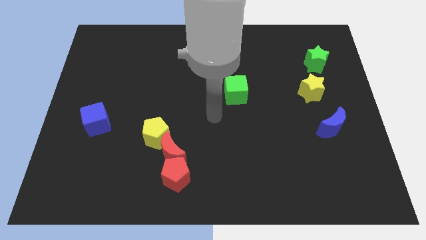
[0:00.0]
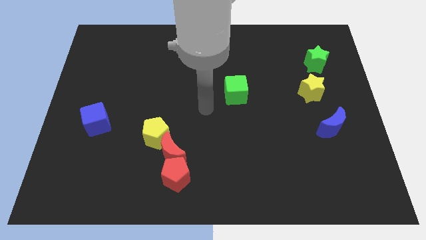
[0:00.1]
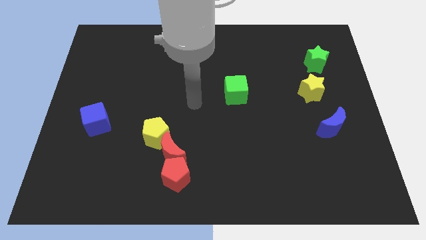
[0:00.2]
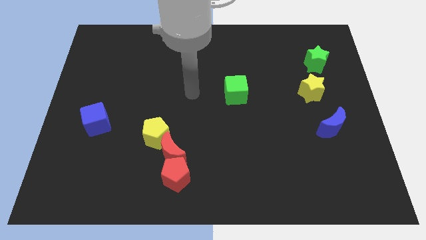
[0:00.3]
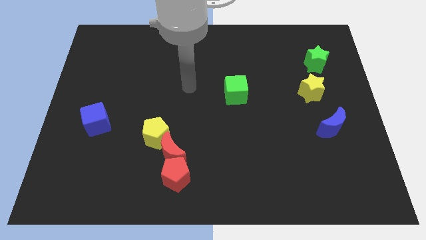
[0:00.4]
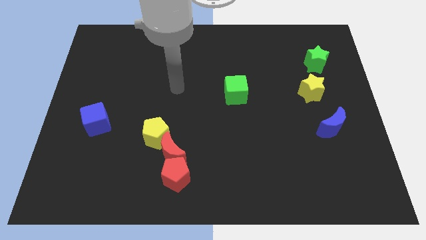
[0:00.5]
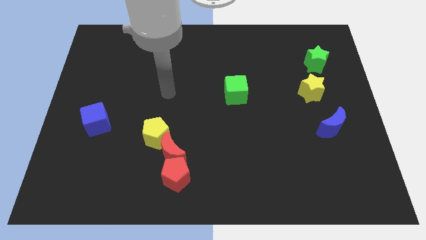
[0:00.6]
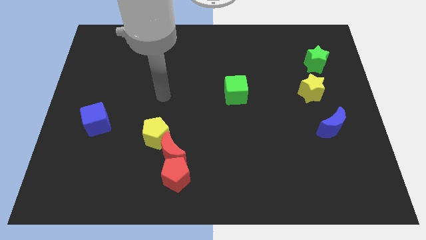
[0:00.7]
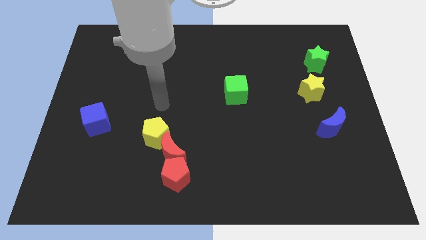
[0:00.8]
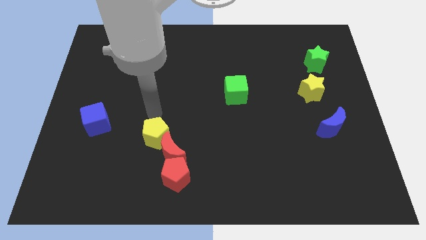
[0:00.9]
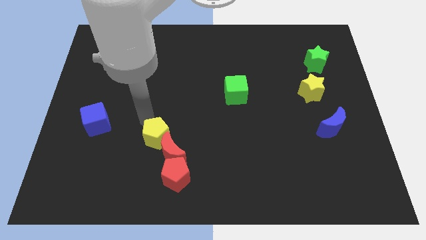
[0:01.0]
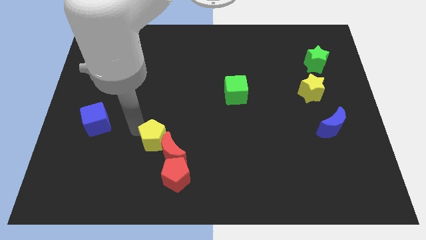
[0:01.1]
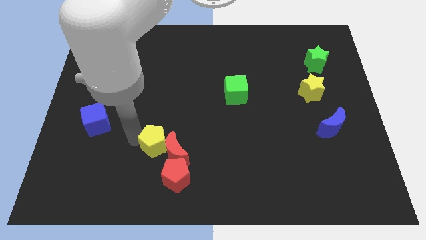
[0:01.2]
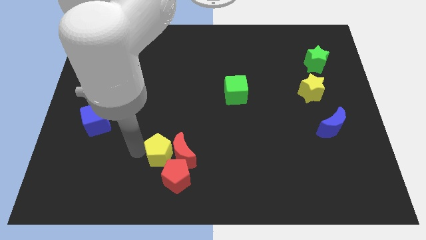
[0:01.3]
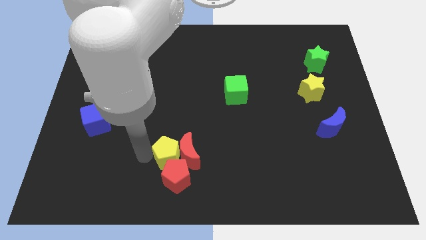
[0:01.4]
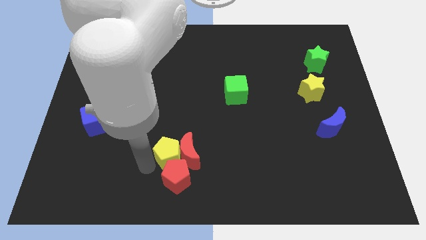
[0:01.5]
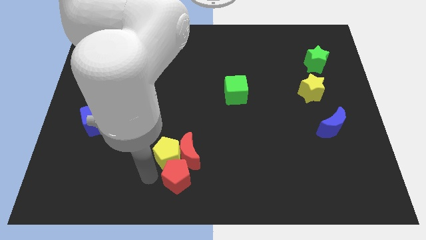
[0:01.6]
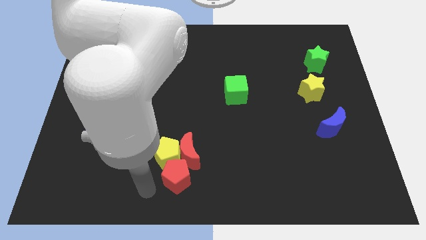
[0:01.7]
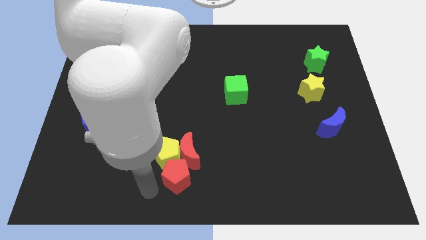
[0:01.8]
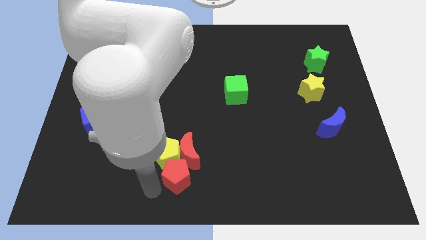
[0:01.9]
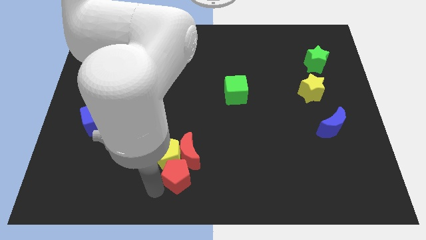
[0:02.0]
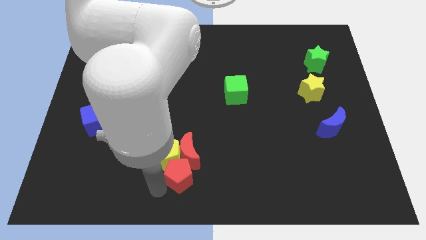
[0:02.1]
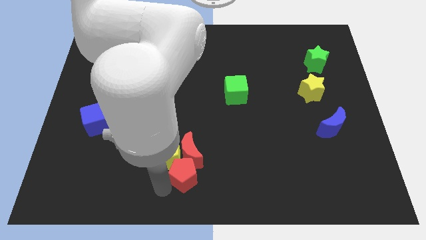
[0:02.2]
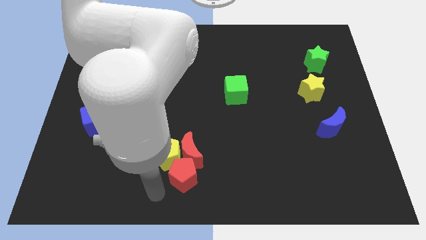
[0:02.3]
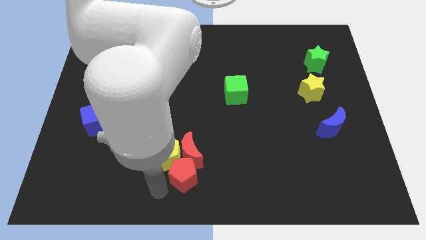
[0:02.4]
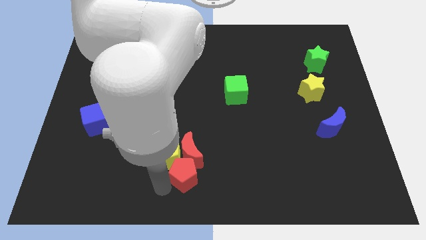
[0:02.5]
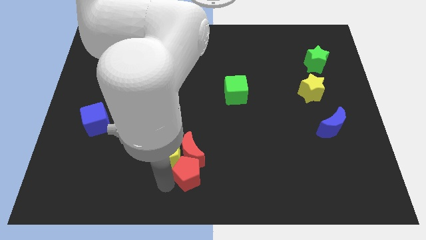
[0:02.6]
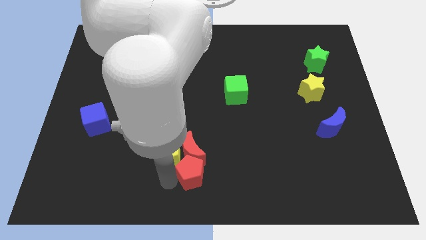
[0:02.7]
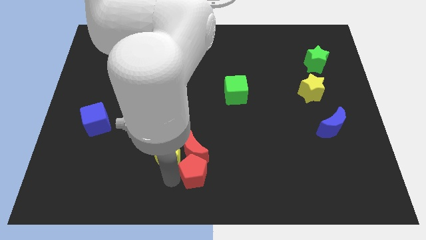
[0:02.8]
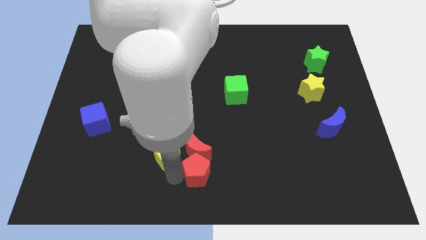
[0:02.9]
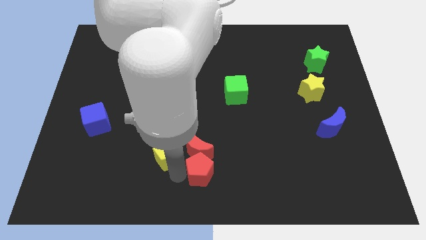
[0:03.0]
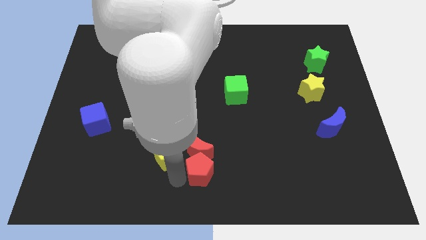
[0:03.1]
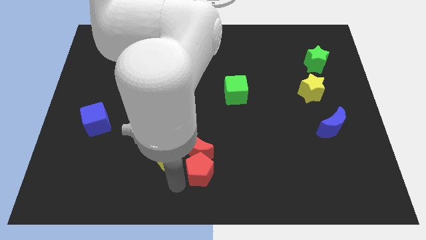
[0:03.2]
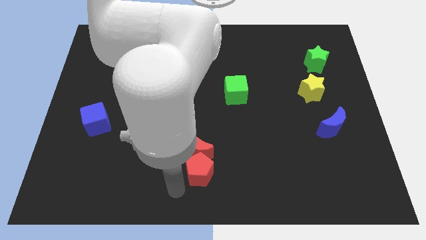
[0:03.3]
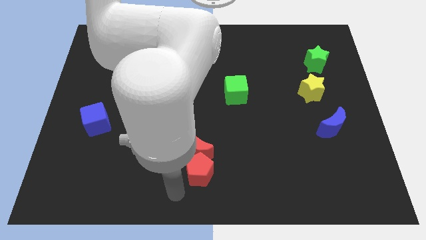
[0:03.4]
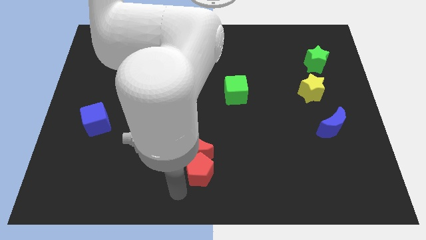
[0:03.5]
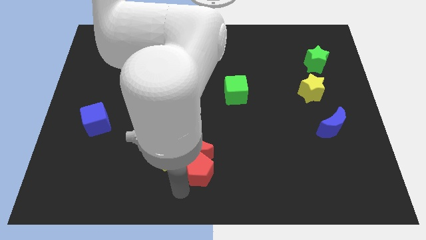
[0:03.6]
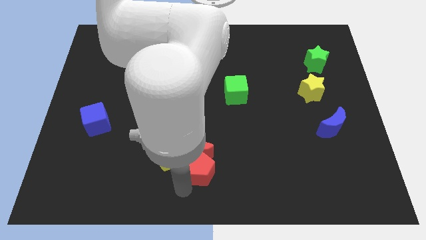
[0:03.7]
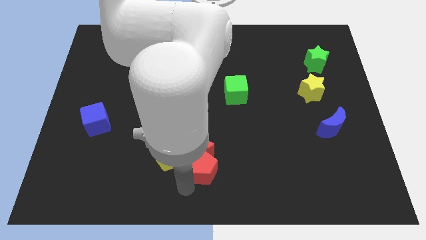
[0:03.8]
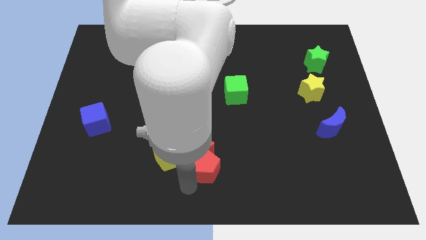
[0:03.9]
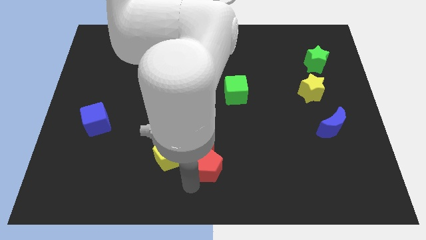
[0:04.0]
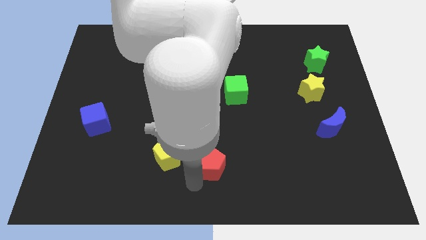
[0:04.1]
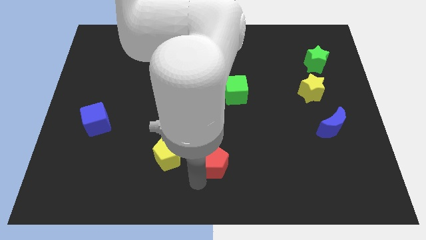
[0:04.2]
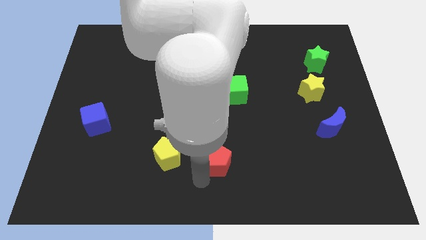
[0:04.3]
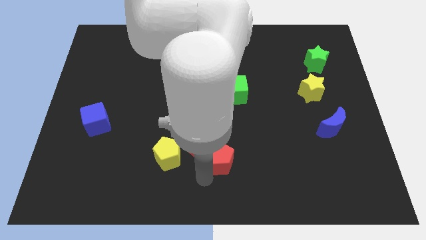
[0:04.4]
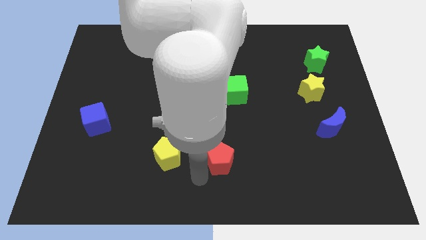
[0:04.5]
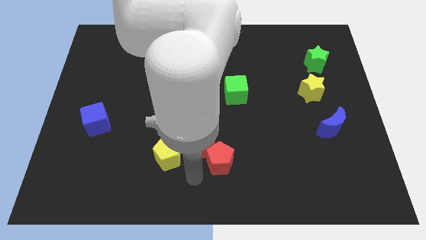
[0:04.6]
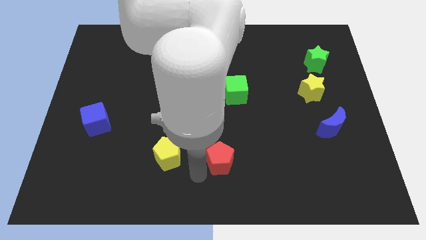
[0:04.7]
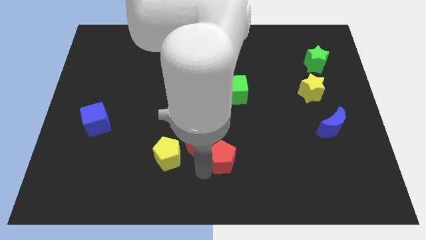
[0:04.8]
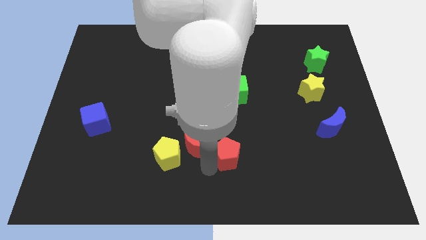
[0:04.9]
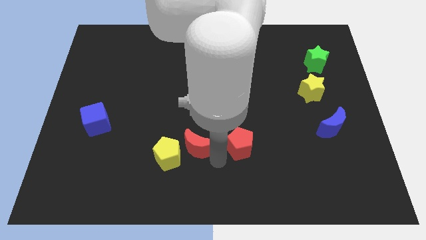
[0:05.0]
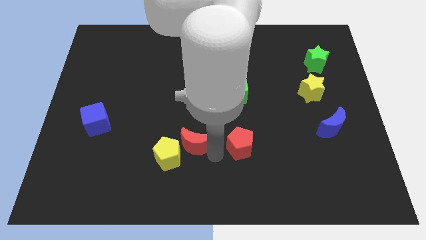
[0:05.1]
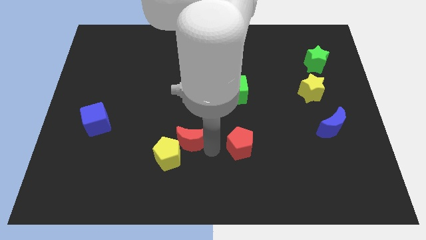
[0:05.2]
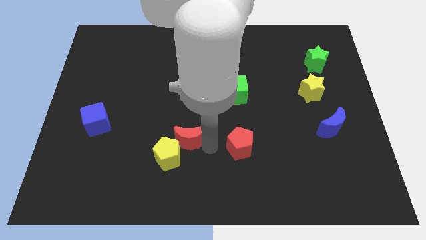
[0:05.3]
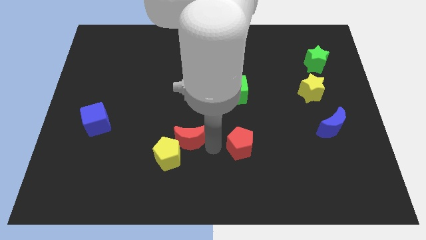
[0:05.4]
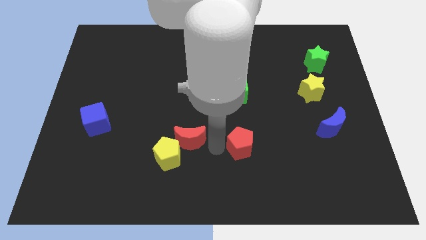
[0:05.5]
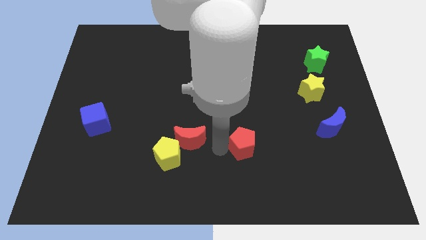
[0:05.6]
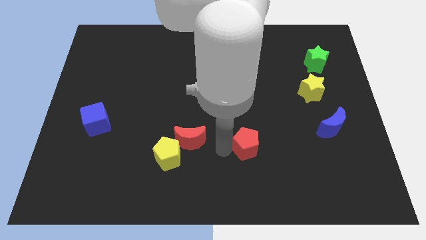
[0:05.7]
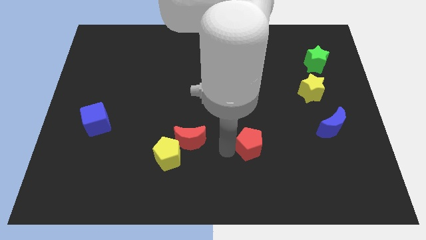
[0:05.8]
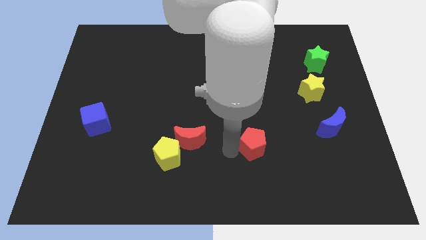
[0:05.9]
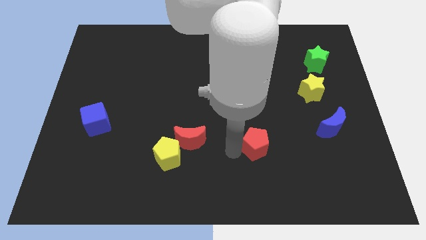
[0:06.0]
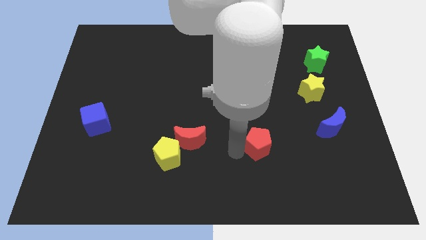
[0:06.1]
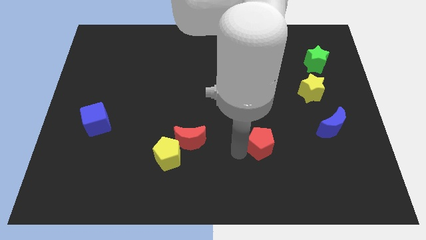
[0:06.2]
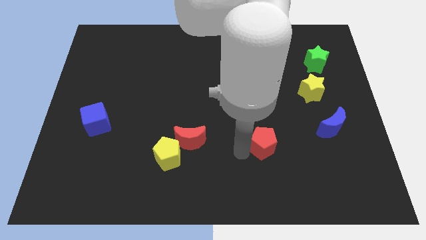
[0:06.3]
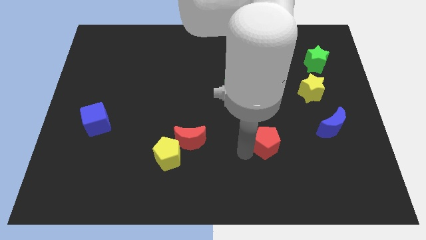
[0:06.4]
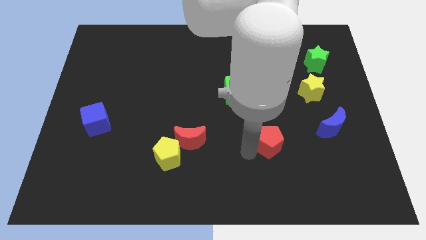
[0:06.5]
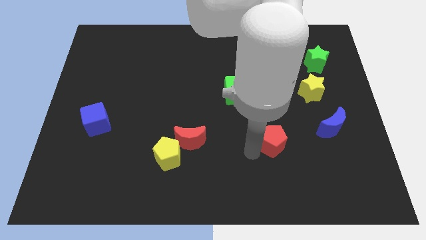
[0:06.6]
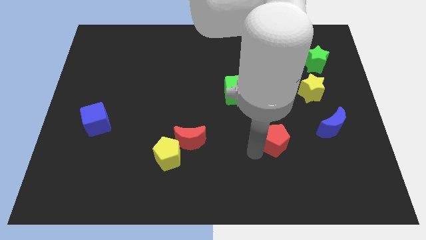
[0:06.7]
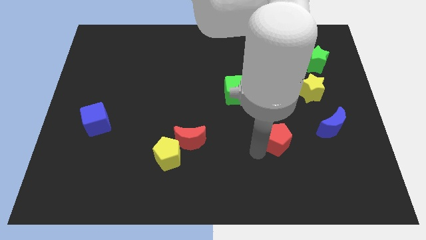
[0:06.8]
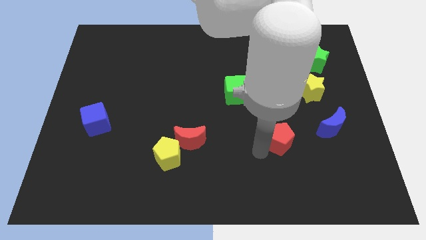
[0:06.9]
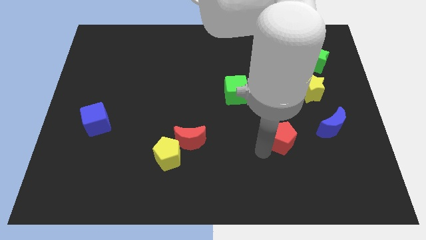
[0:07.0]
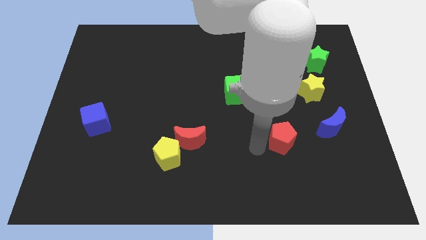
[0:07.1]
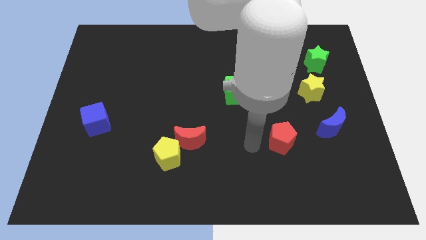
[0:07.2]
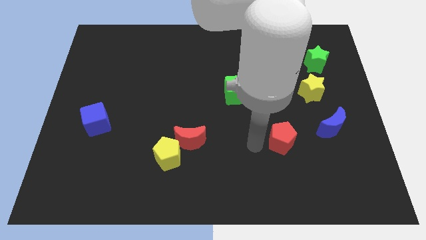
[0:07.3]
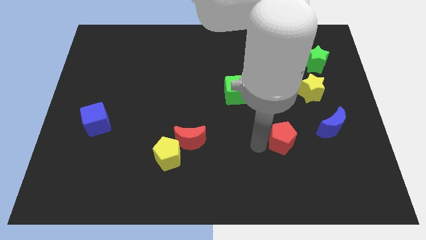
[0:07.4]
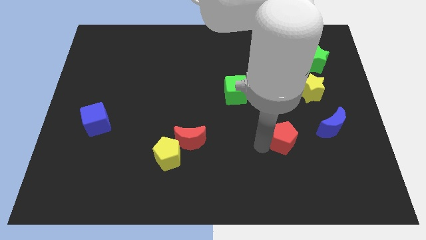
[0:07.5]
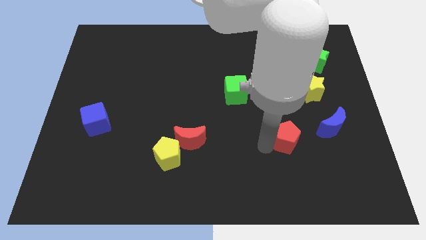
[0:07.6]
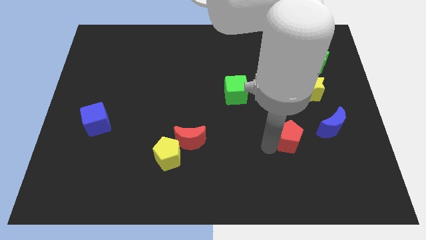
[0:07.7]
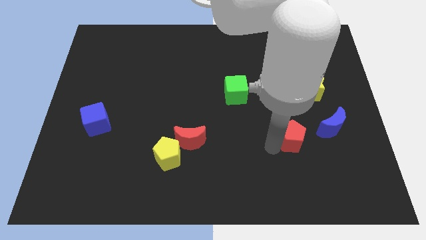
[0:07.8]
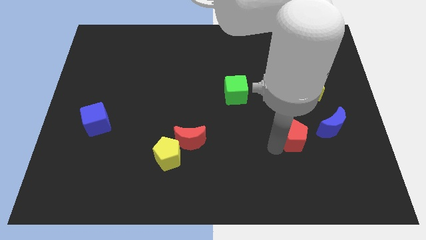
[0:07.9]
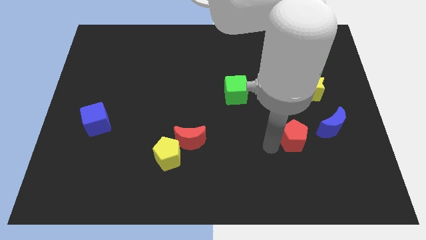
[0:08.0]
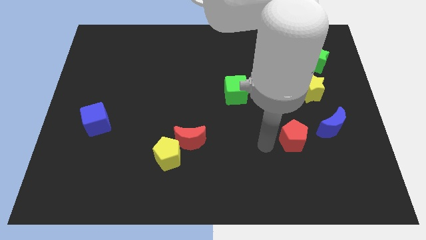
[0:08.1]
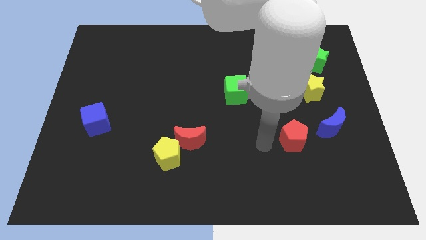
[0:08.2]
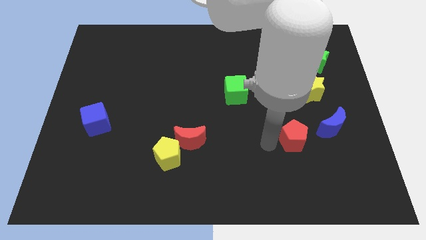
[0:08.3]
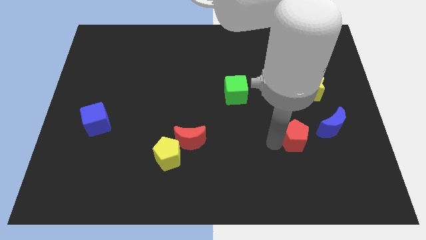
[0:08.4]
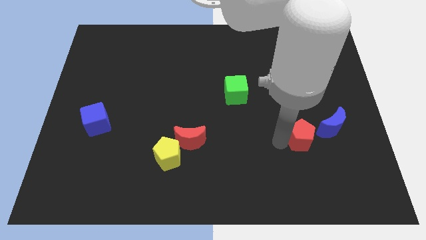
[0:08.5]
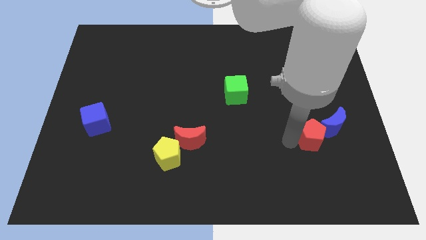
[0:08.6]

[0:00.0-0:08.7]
move the red pentagon next to the blue moon
